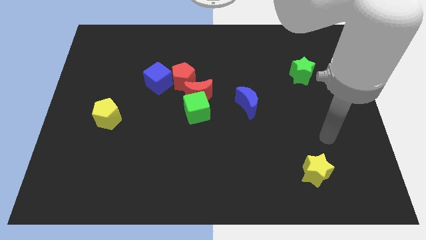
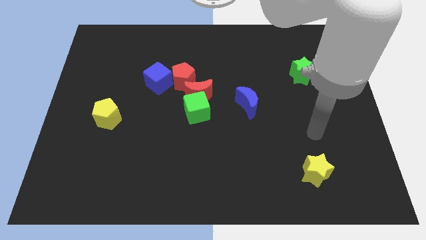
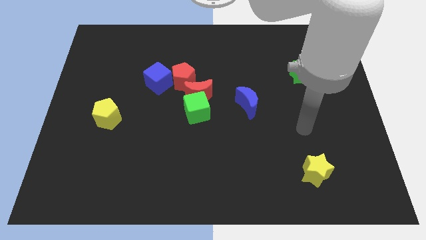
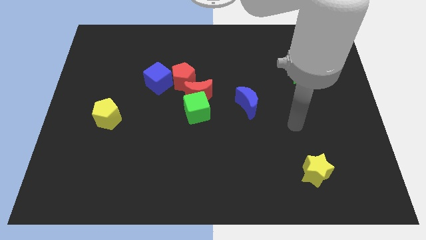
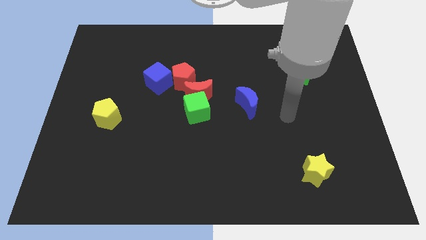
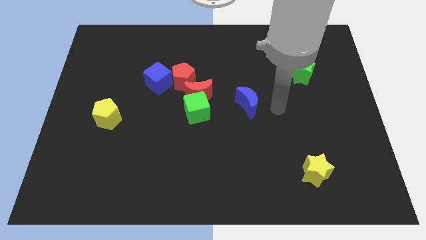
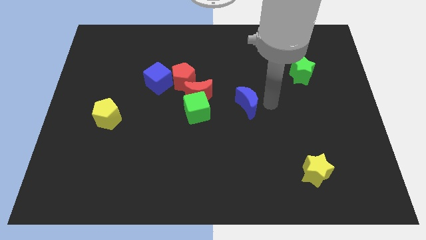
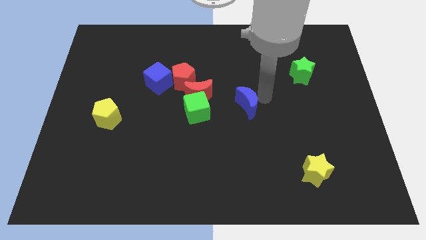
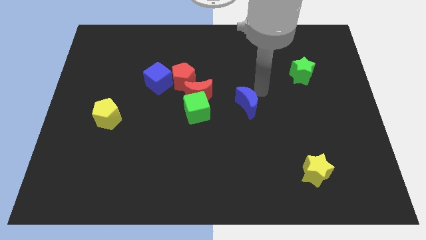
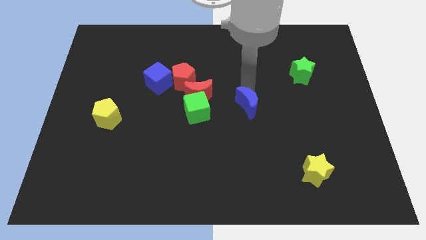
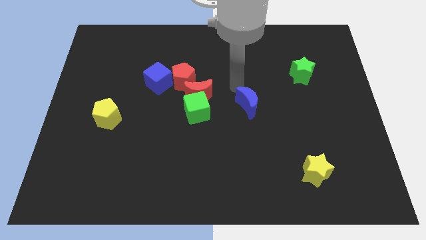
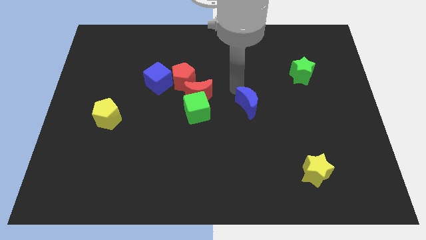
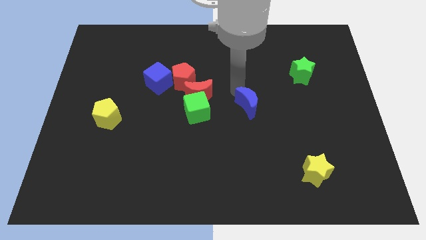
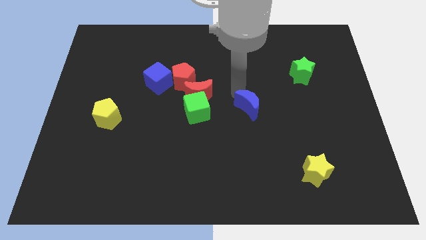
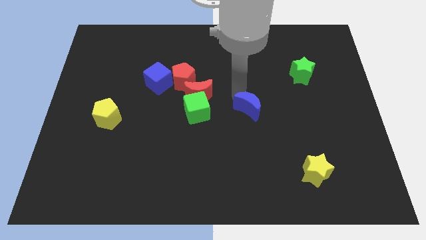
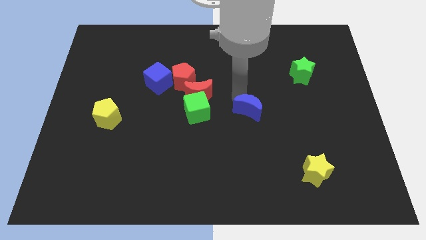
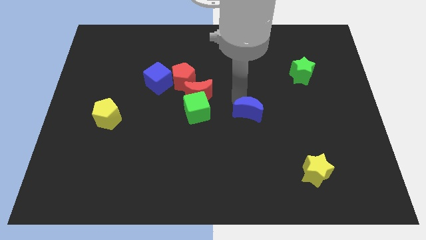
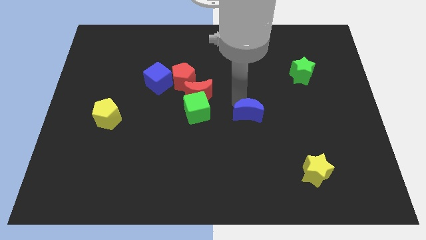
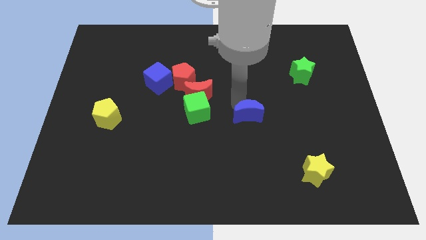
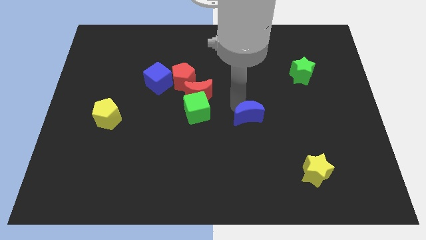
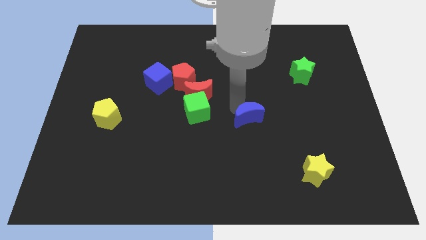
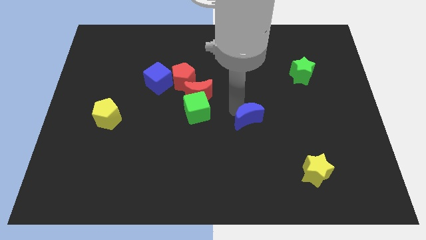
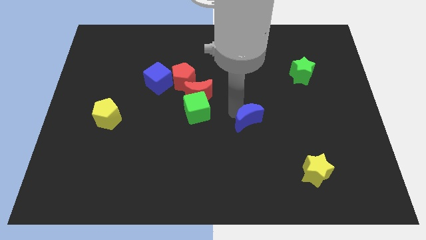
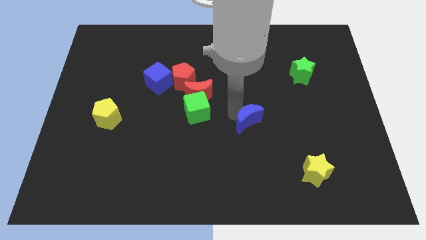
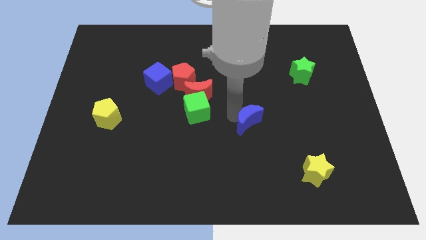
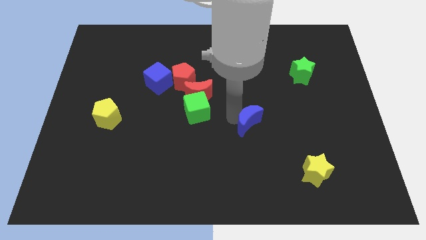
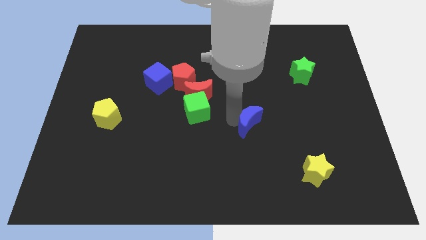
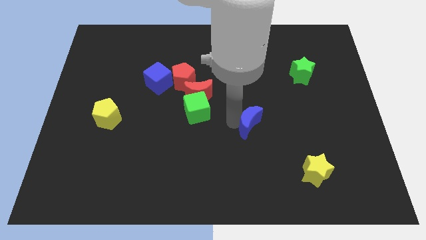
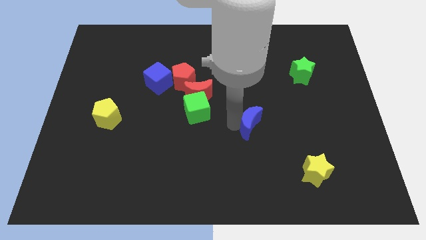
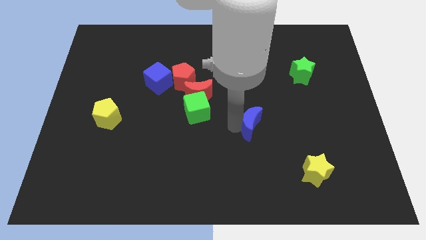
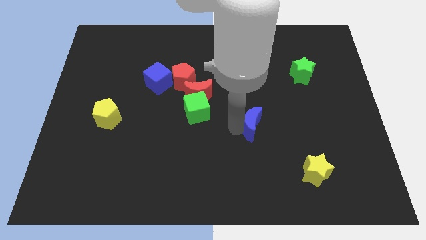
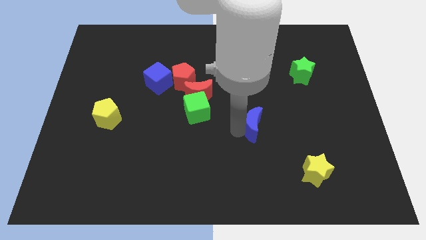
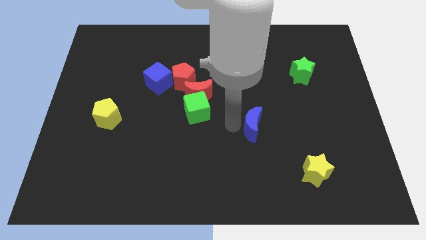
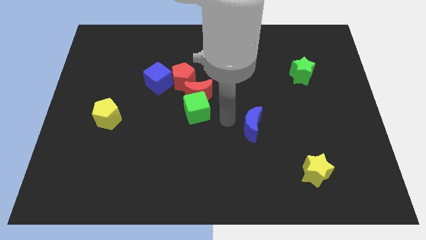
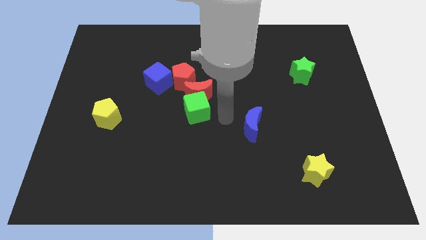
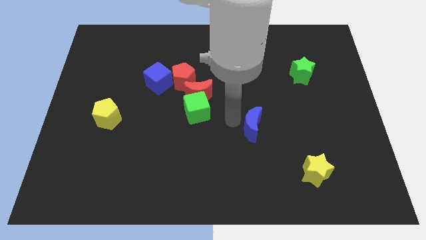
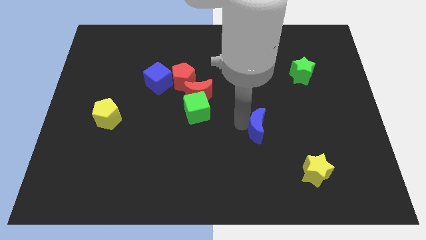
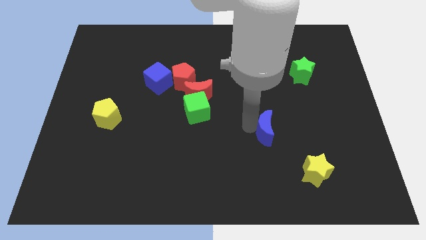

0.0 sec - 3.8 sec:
slightly move the blue moon down and then to the right

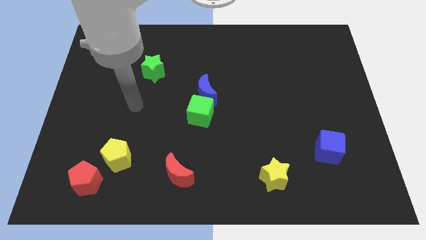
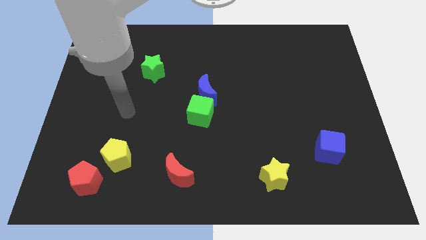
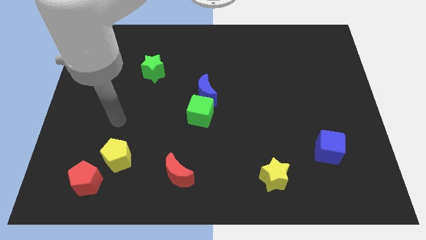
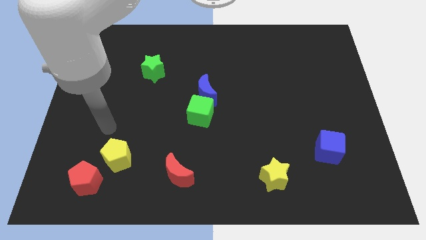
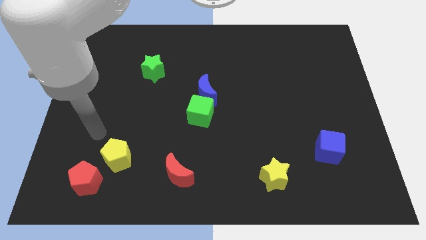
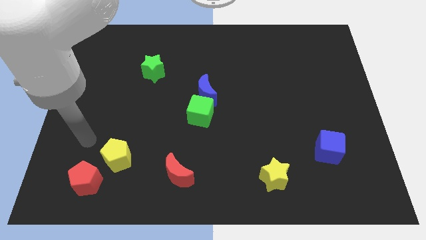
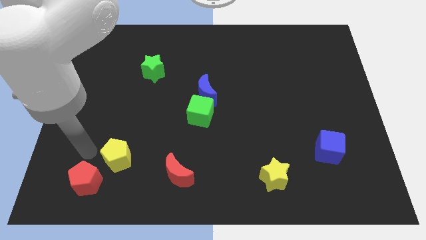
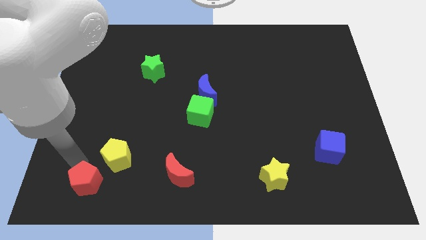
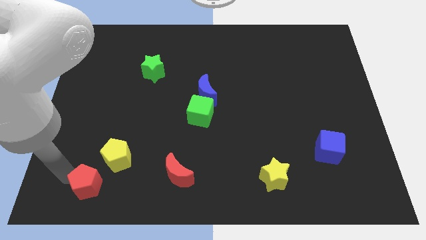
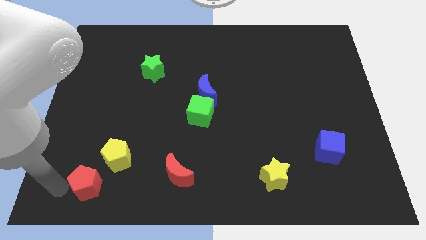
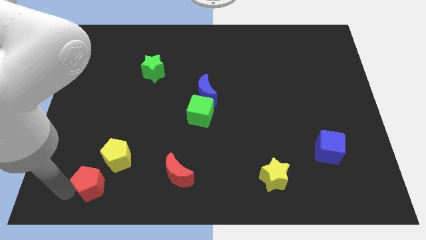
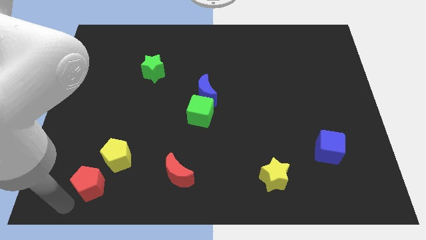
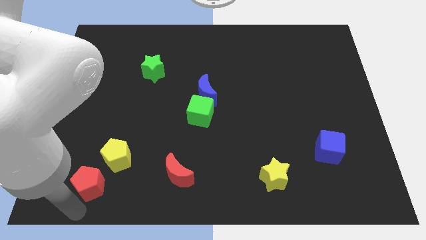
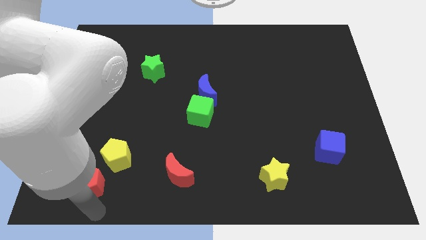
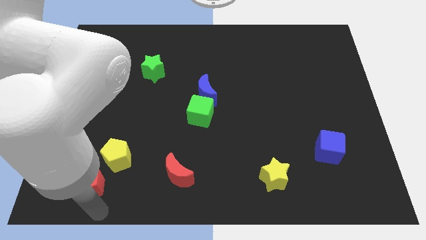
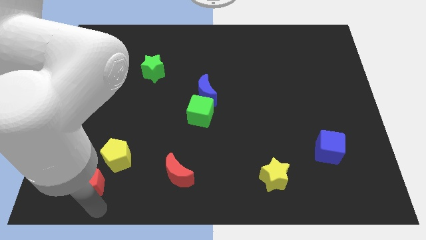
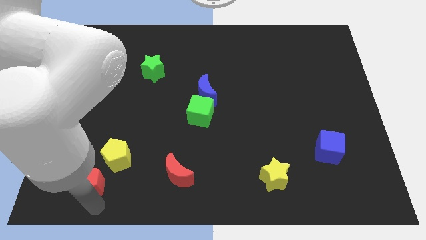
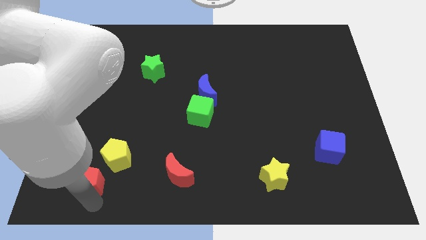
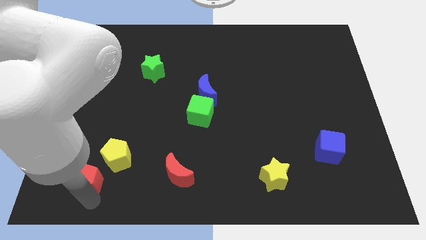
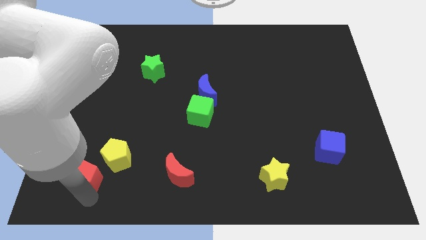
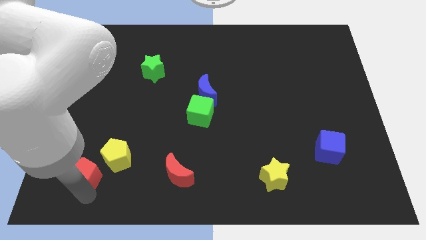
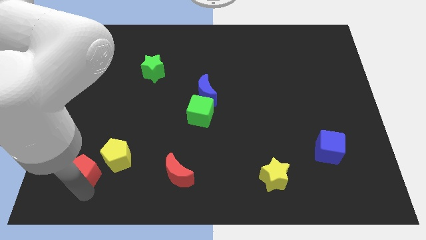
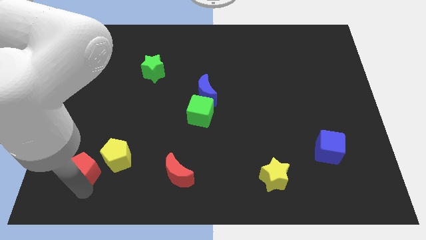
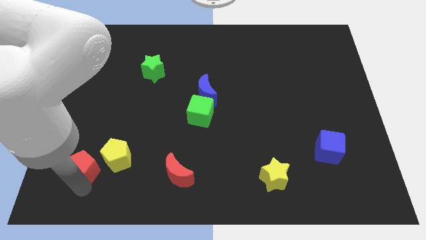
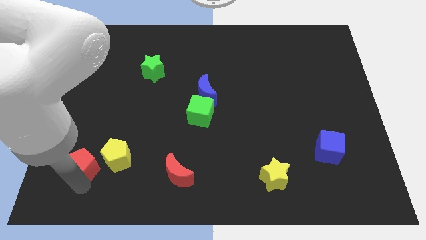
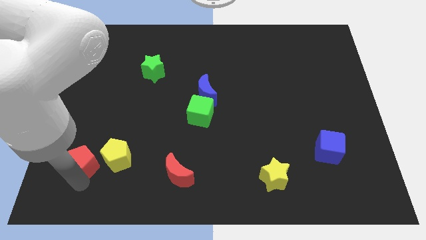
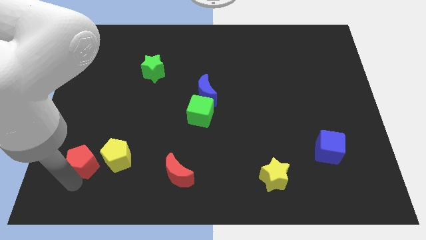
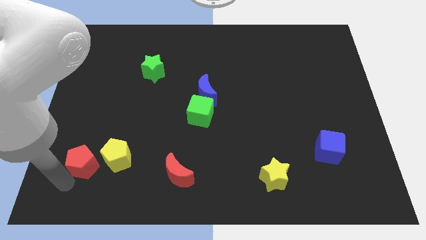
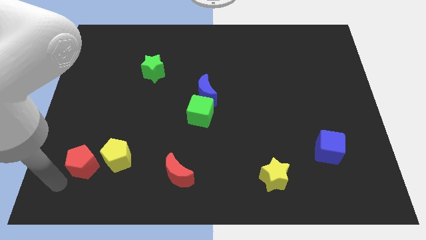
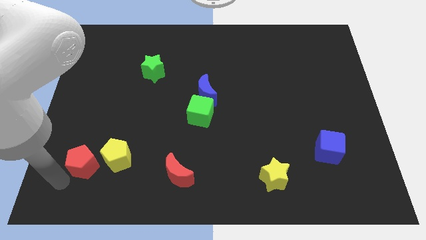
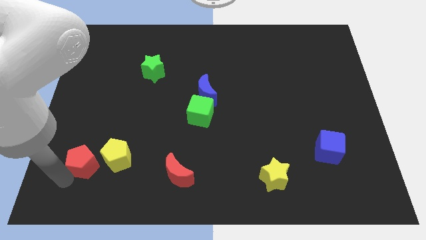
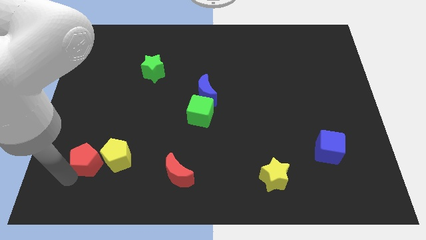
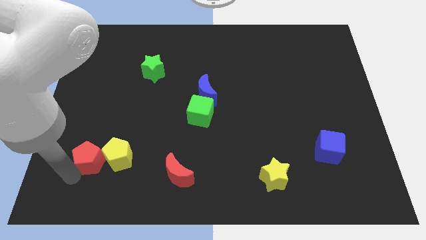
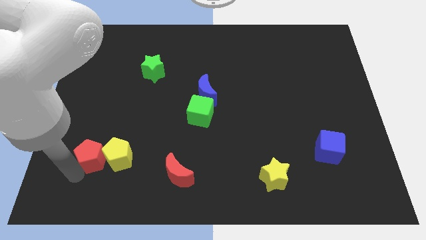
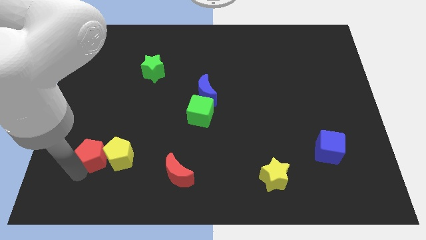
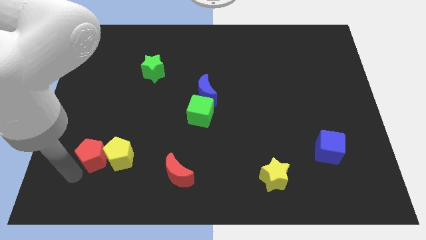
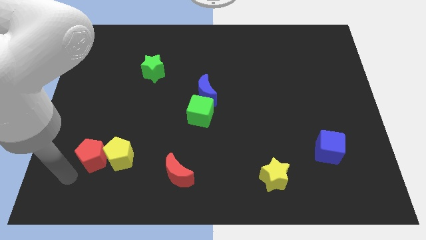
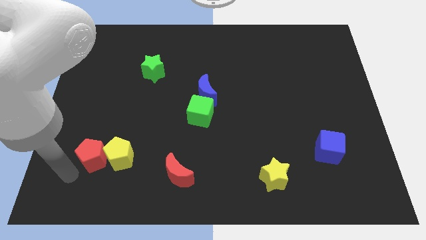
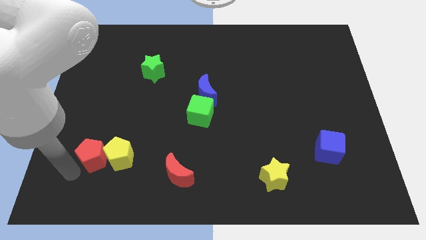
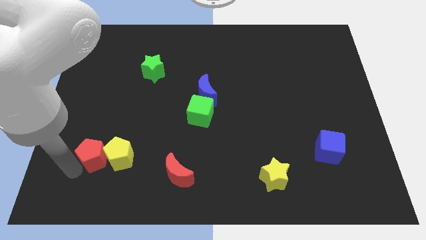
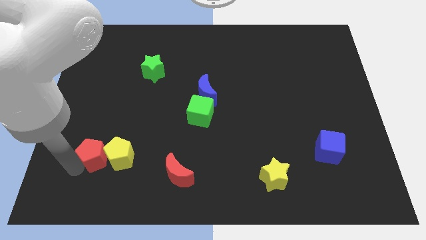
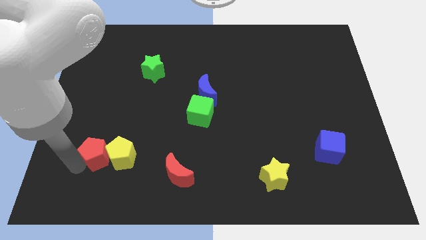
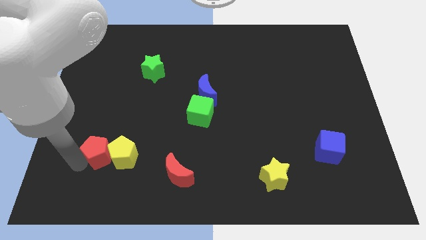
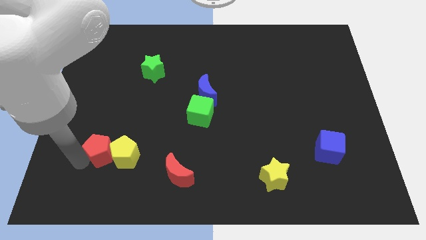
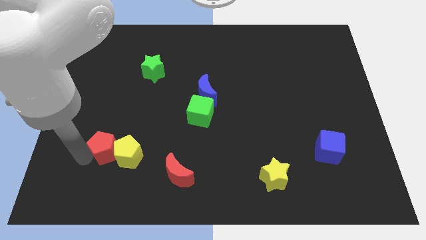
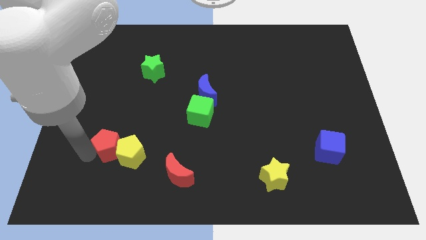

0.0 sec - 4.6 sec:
move the red pentagon diagonally up and right a little
